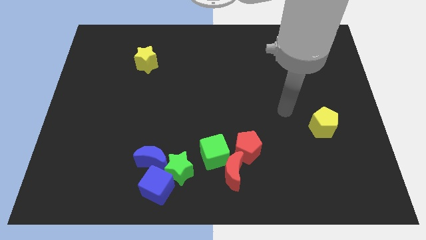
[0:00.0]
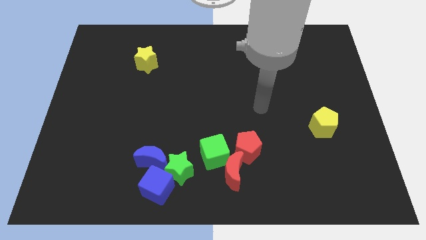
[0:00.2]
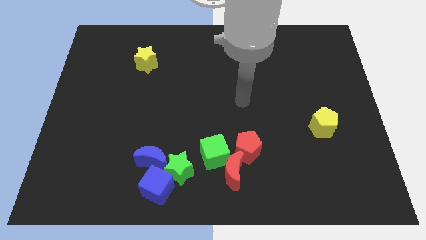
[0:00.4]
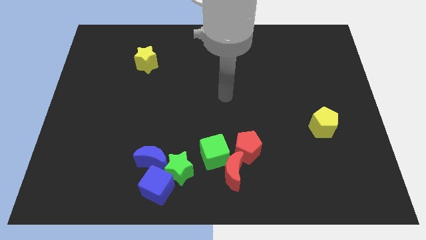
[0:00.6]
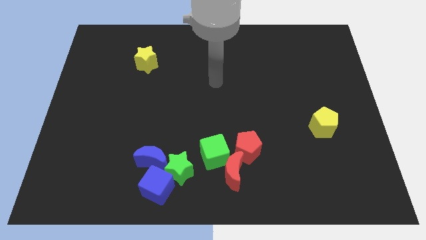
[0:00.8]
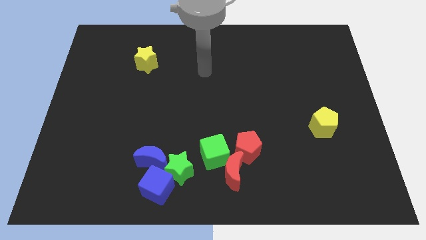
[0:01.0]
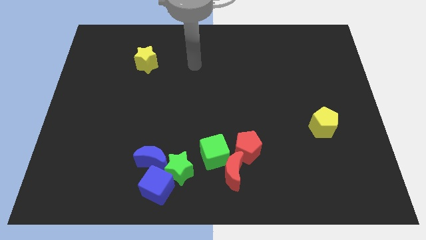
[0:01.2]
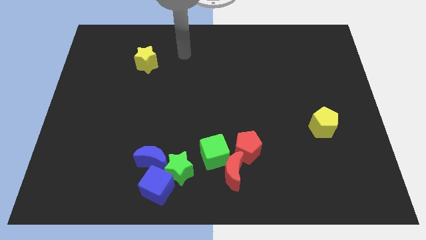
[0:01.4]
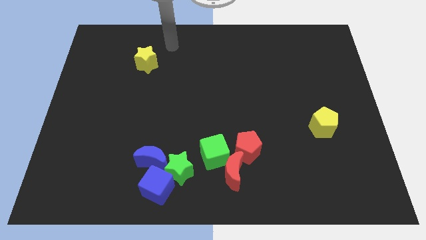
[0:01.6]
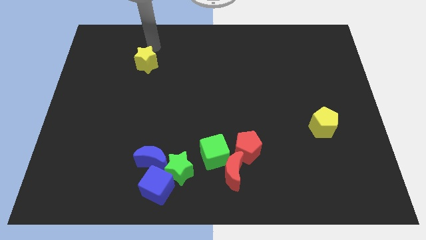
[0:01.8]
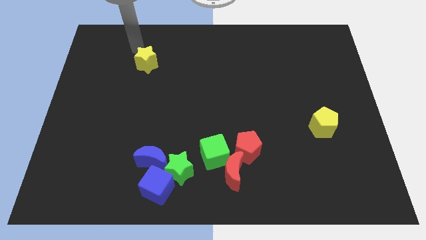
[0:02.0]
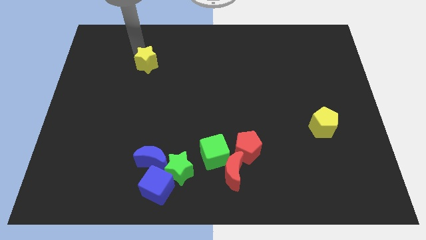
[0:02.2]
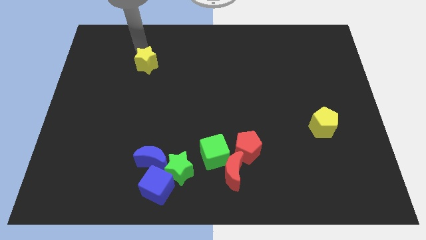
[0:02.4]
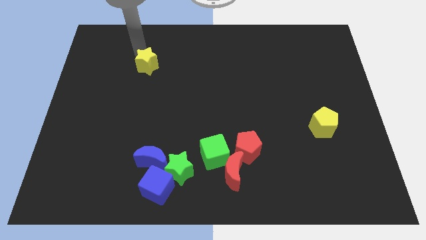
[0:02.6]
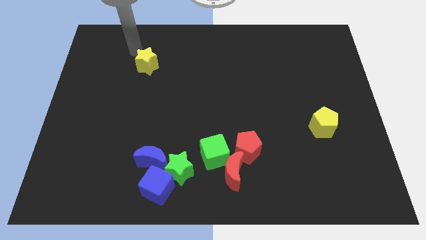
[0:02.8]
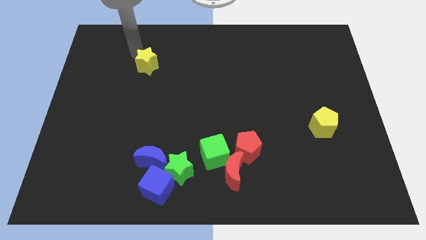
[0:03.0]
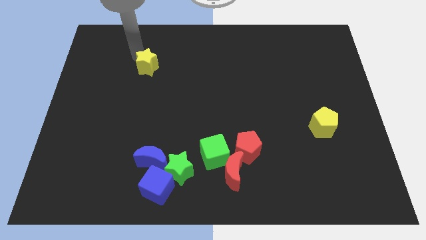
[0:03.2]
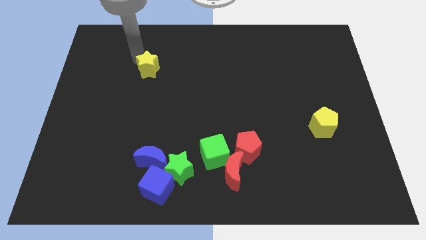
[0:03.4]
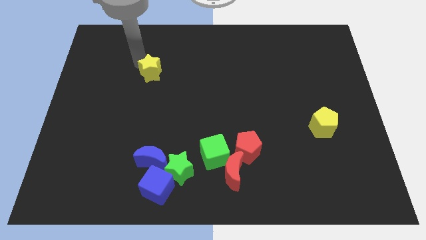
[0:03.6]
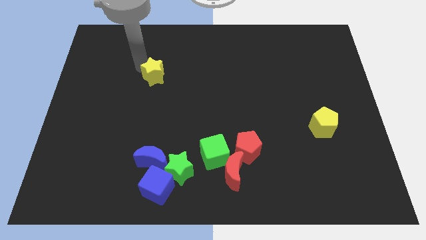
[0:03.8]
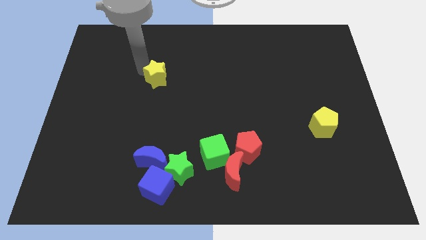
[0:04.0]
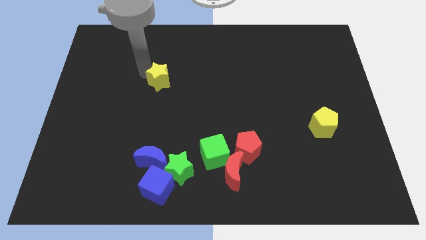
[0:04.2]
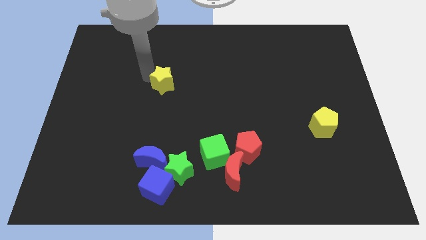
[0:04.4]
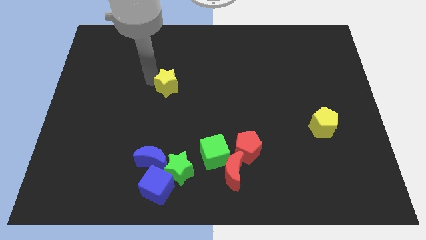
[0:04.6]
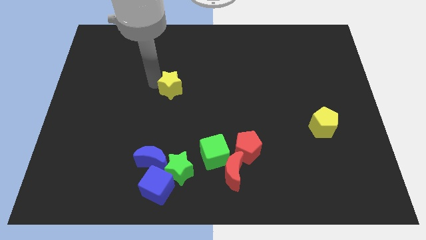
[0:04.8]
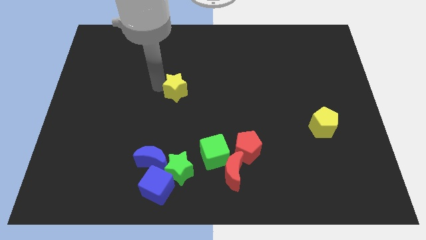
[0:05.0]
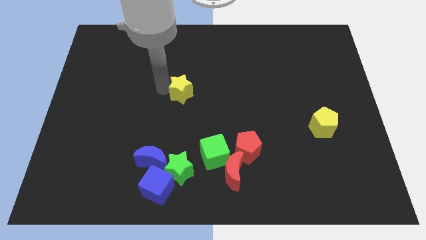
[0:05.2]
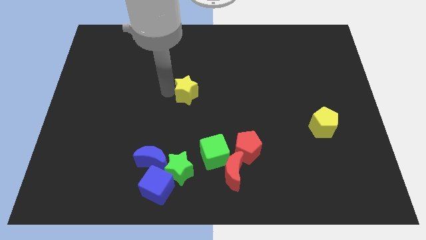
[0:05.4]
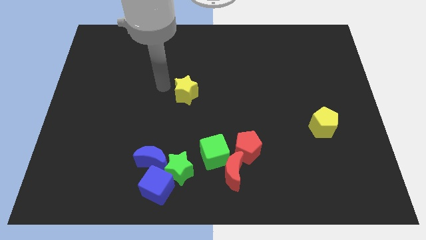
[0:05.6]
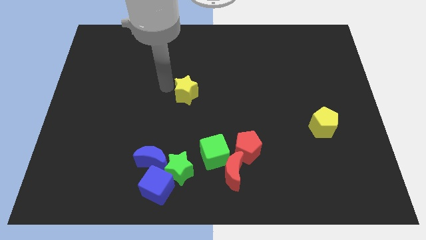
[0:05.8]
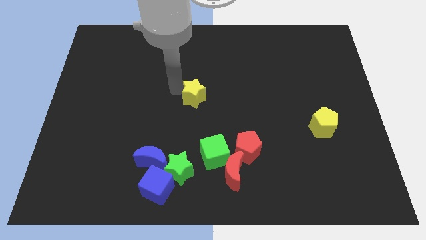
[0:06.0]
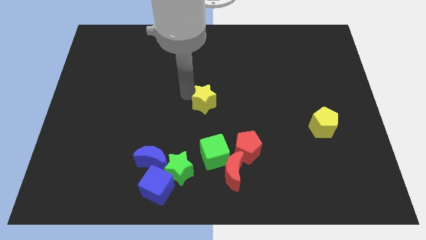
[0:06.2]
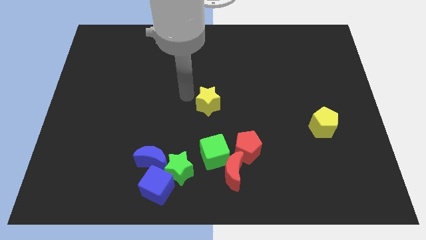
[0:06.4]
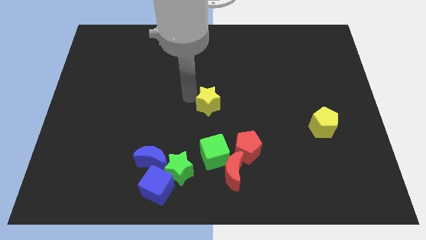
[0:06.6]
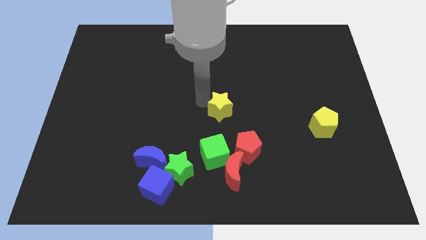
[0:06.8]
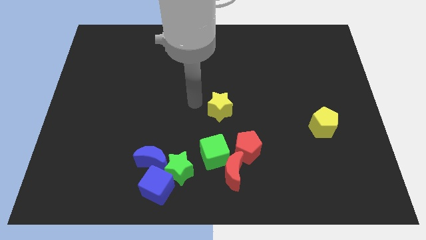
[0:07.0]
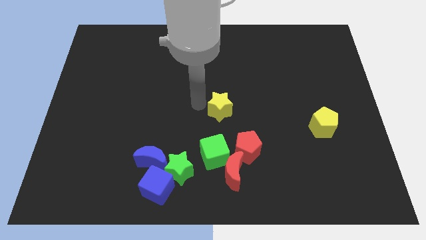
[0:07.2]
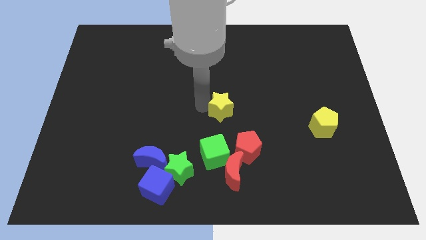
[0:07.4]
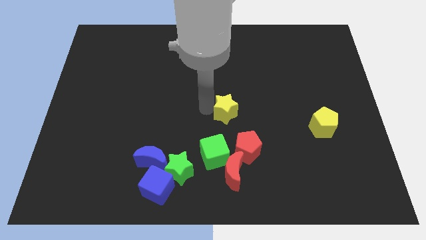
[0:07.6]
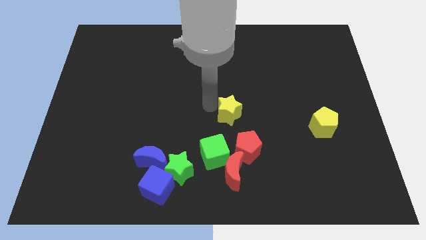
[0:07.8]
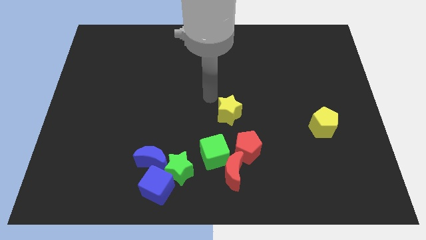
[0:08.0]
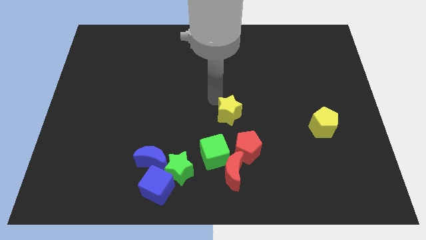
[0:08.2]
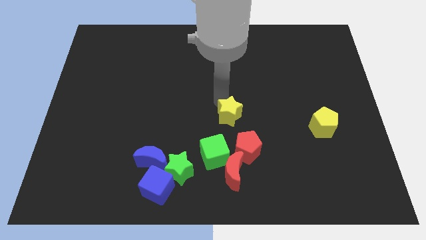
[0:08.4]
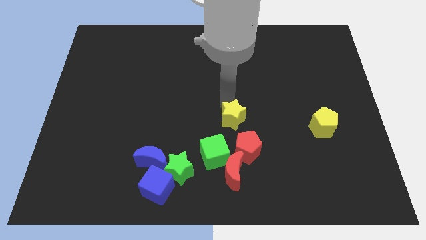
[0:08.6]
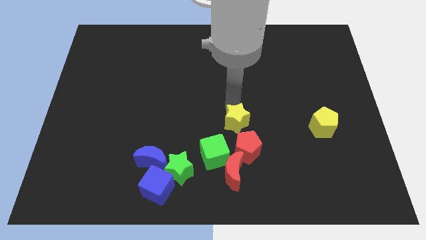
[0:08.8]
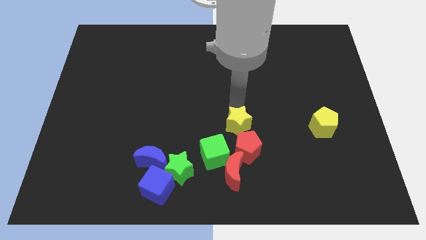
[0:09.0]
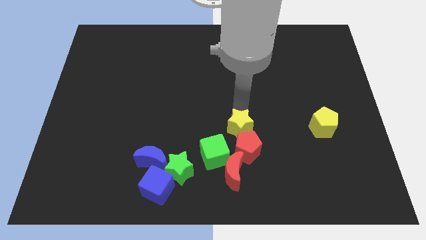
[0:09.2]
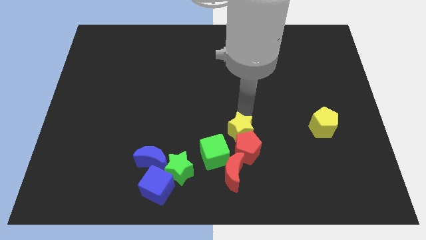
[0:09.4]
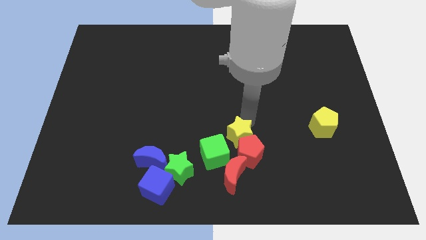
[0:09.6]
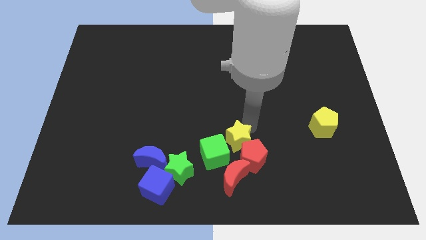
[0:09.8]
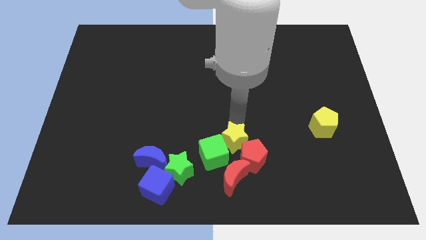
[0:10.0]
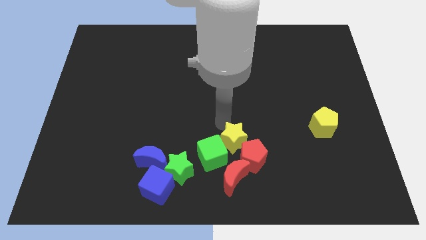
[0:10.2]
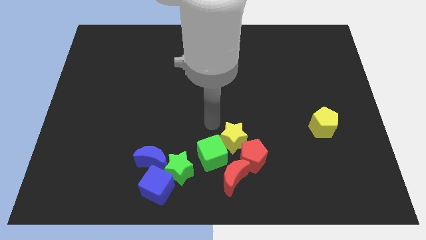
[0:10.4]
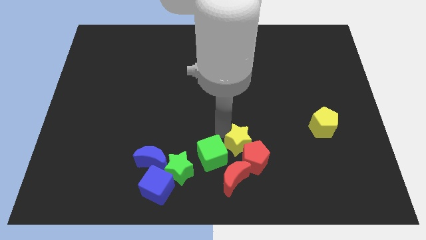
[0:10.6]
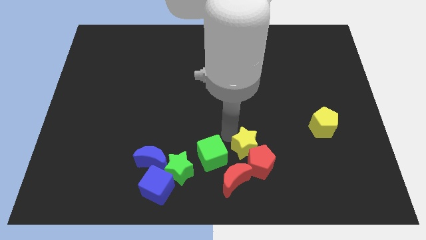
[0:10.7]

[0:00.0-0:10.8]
push the yellow star to the top right of the red moon

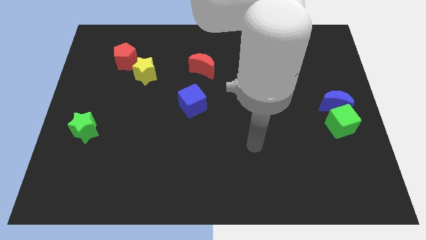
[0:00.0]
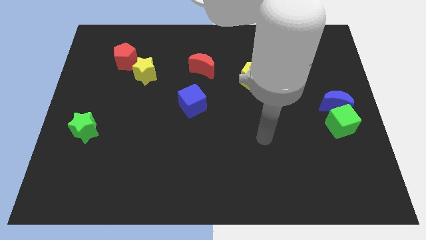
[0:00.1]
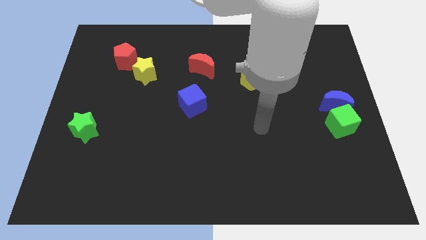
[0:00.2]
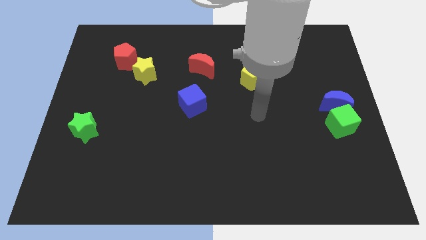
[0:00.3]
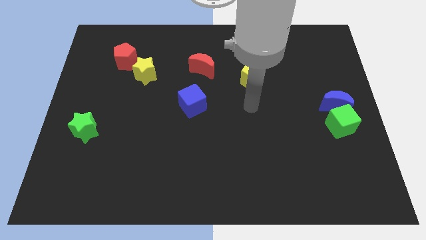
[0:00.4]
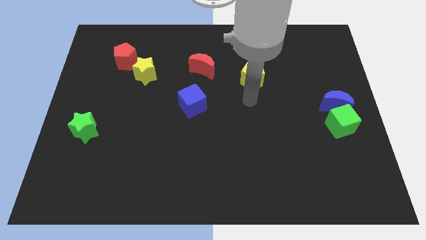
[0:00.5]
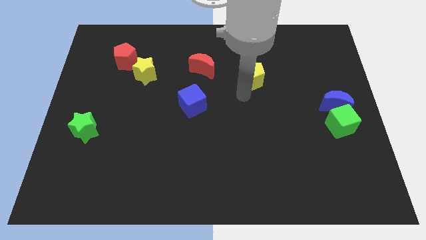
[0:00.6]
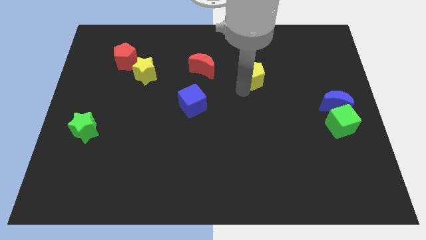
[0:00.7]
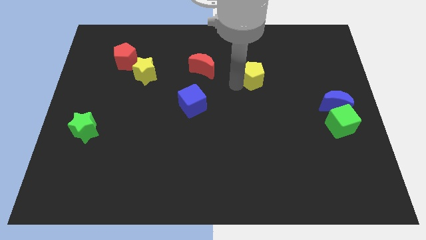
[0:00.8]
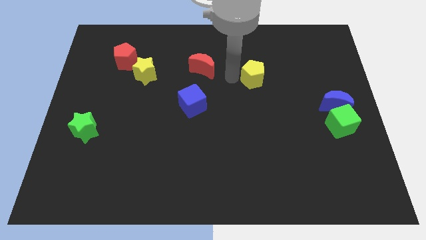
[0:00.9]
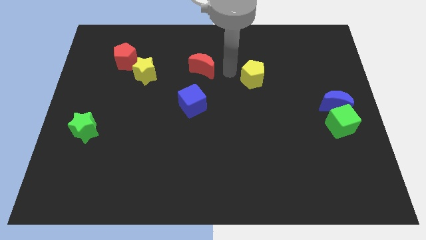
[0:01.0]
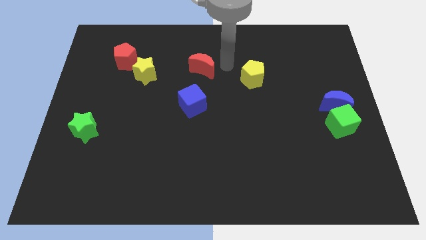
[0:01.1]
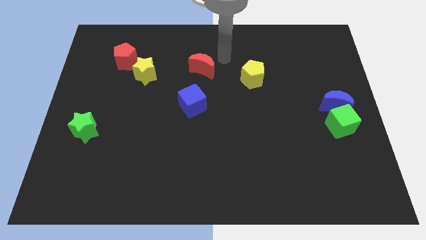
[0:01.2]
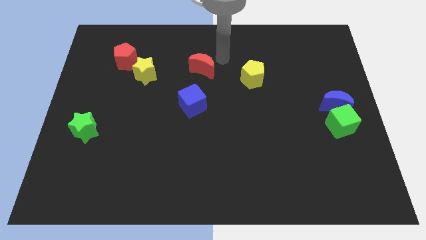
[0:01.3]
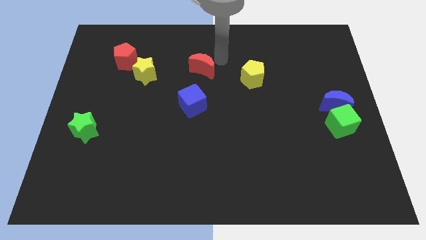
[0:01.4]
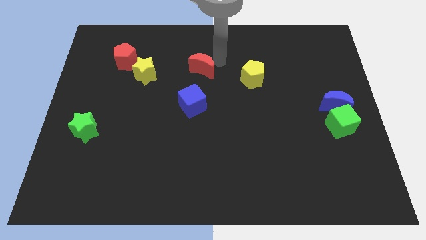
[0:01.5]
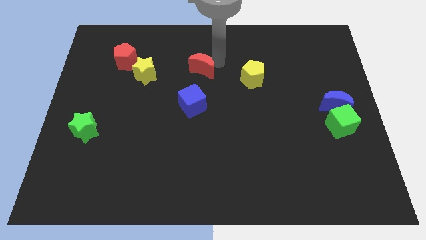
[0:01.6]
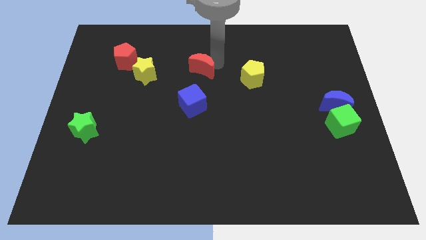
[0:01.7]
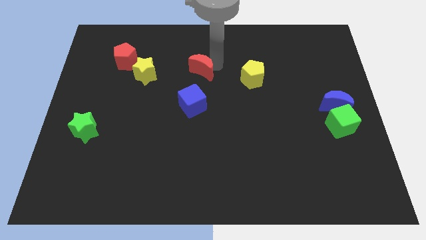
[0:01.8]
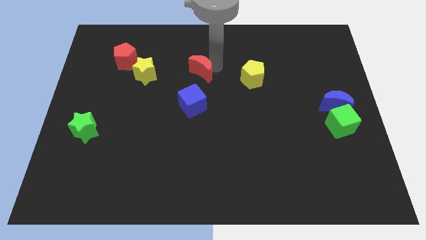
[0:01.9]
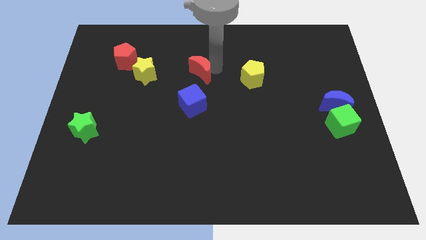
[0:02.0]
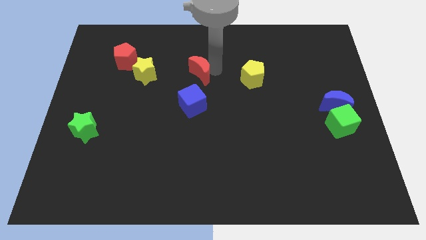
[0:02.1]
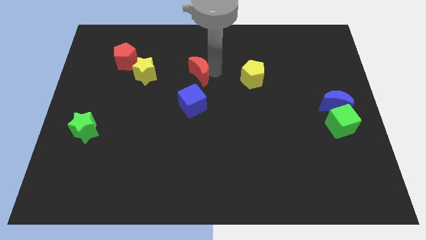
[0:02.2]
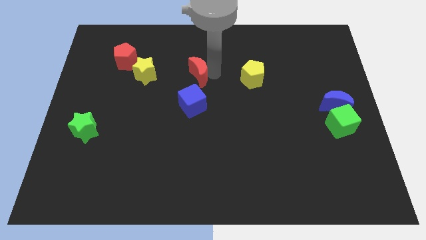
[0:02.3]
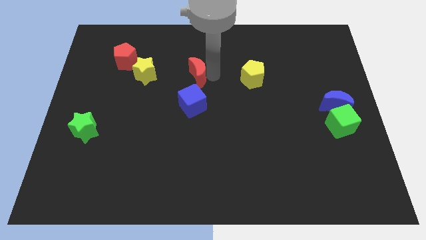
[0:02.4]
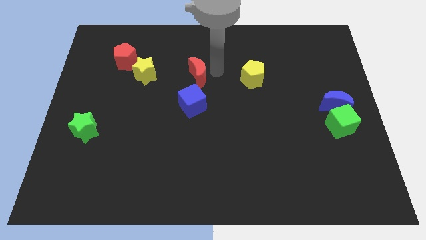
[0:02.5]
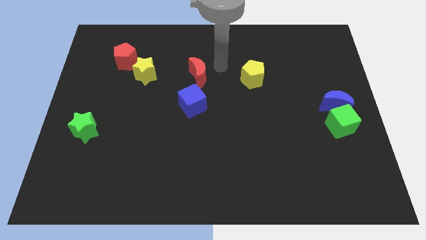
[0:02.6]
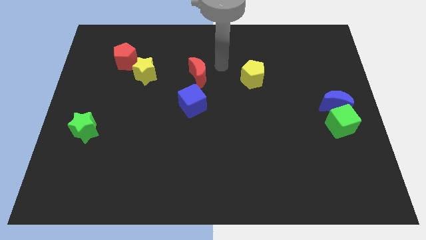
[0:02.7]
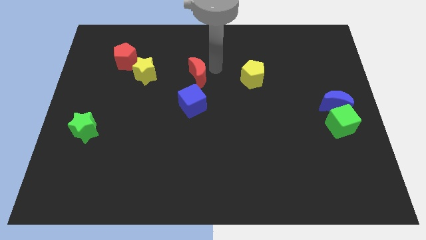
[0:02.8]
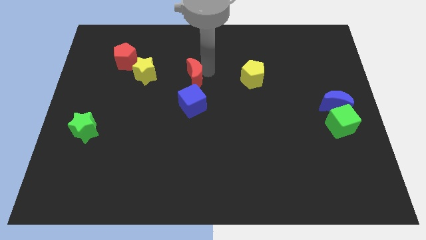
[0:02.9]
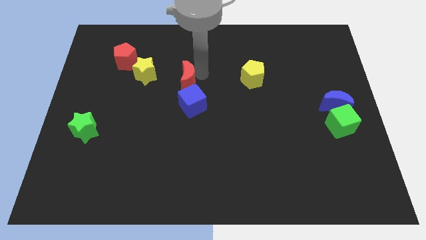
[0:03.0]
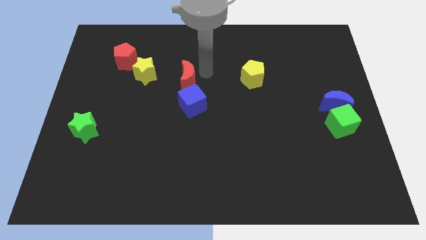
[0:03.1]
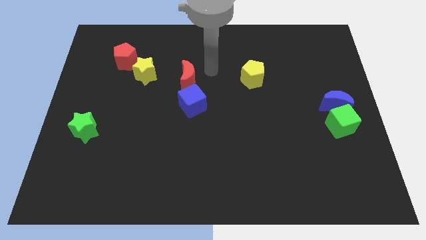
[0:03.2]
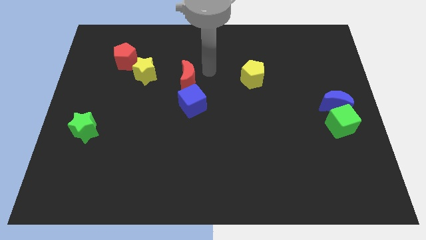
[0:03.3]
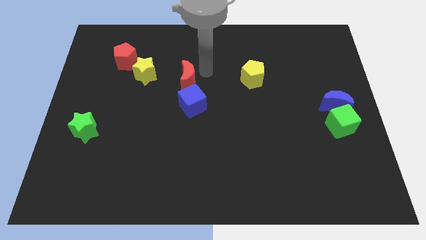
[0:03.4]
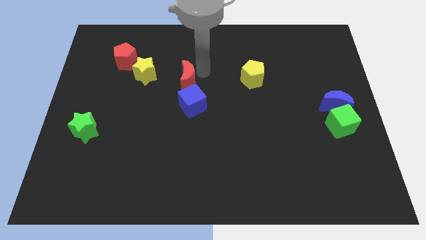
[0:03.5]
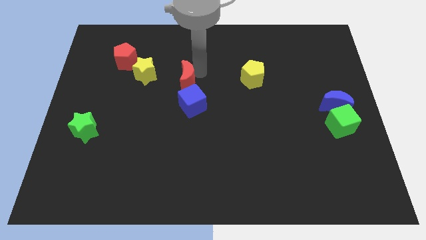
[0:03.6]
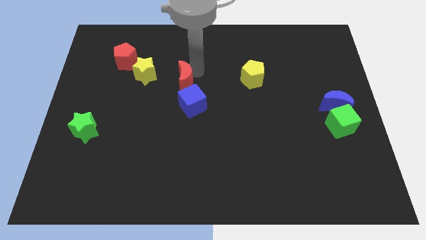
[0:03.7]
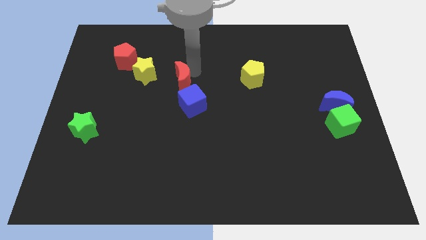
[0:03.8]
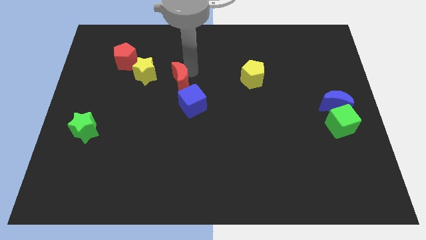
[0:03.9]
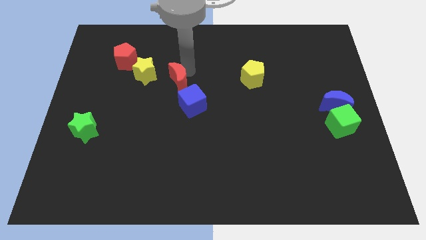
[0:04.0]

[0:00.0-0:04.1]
put the red moon to the bottom right of the yellow star
